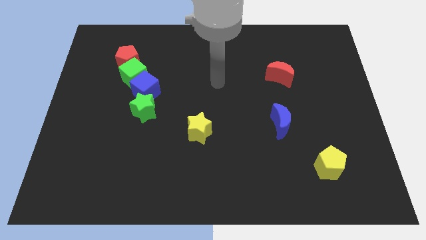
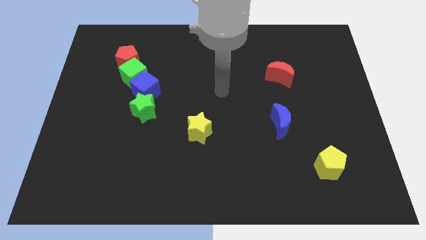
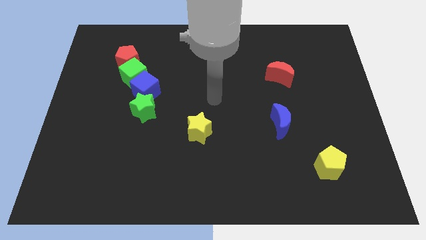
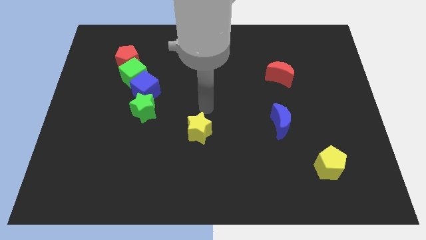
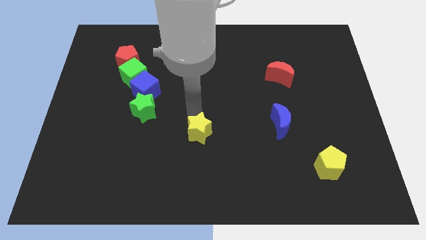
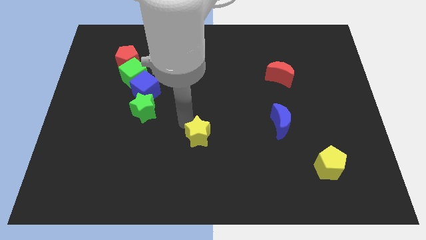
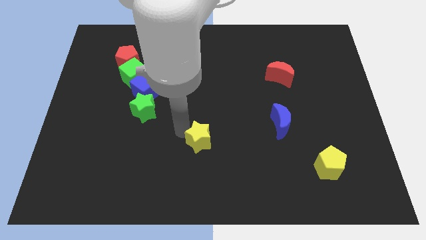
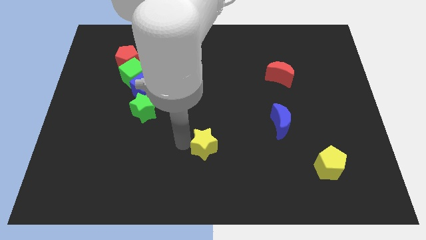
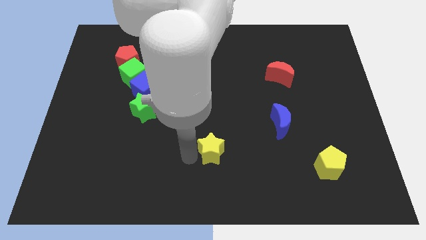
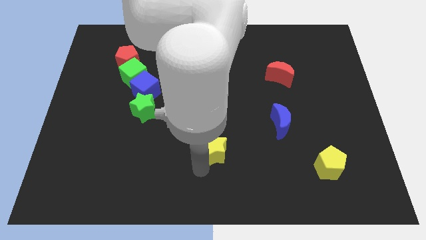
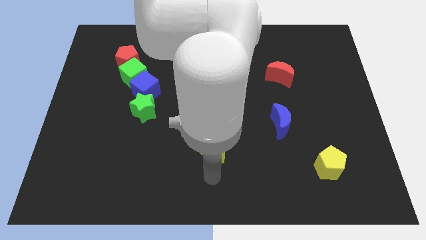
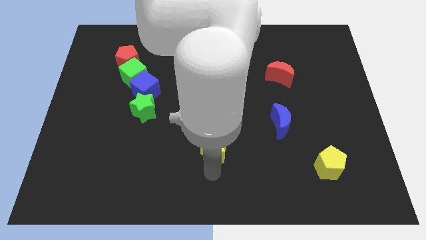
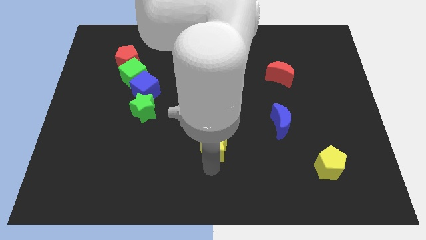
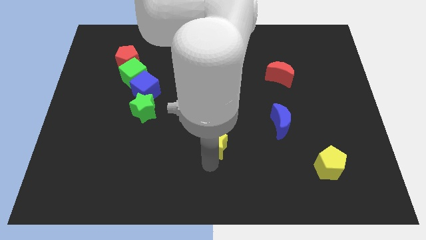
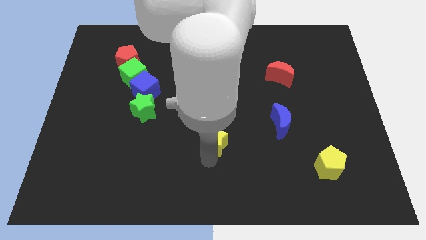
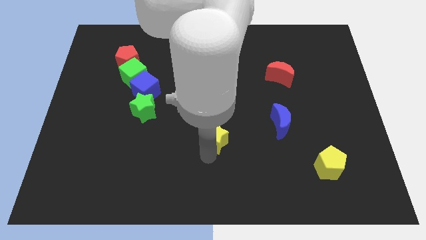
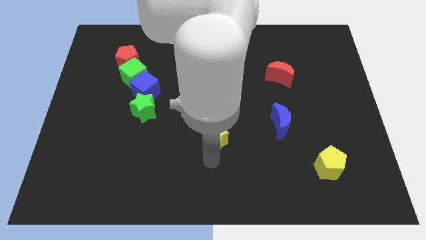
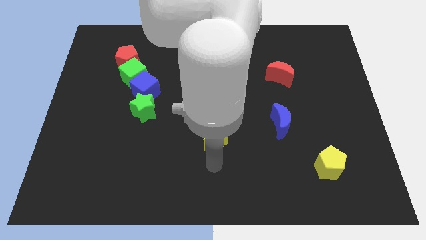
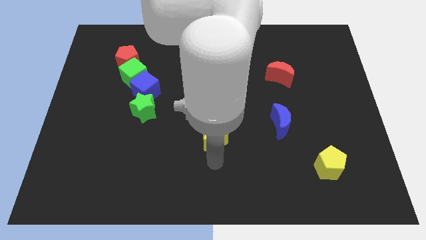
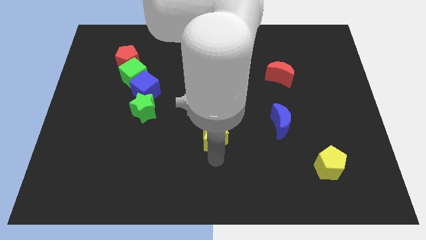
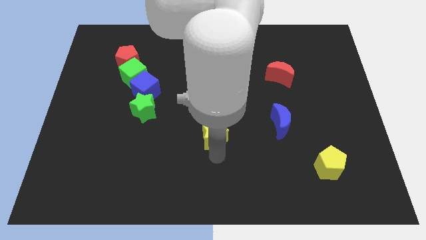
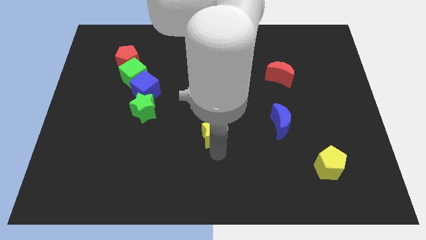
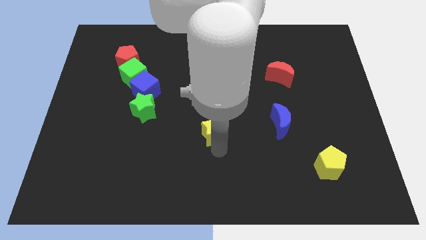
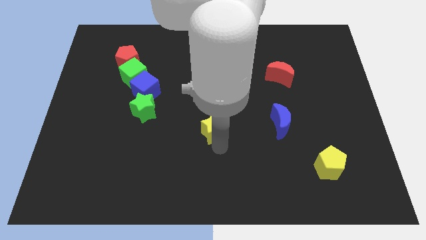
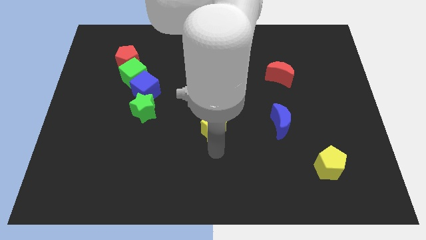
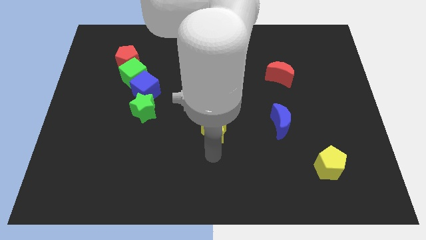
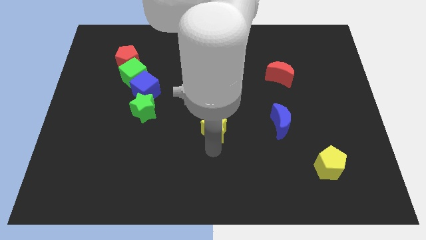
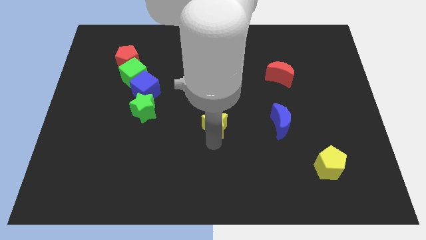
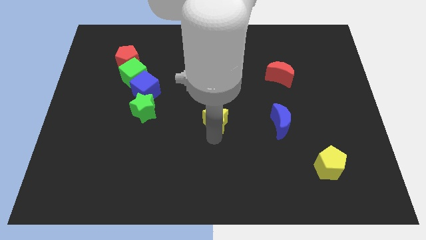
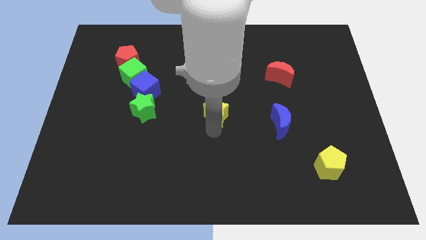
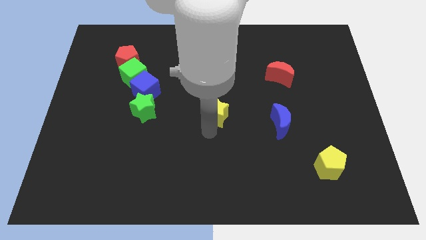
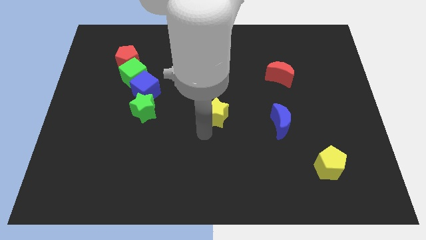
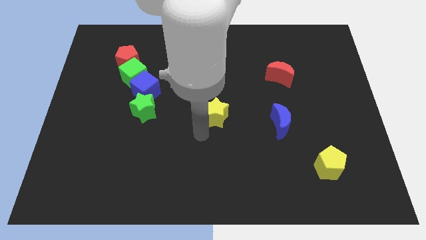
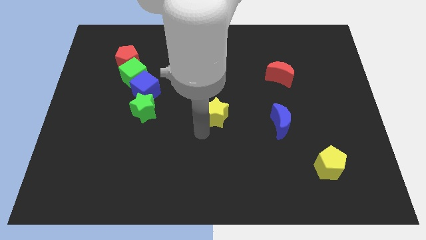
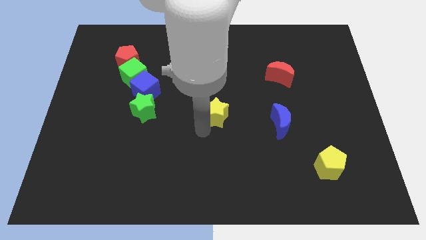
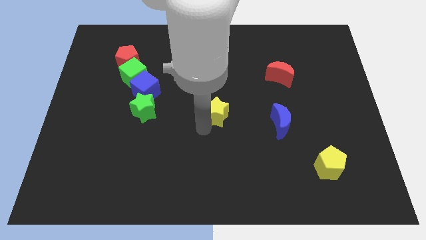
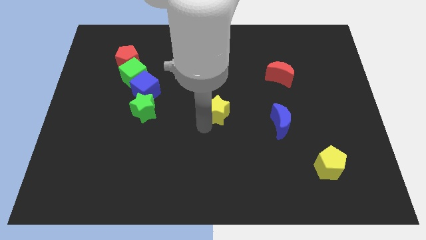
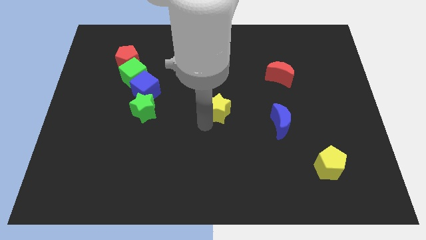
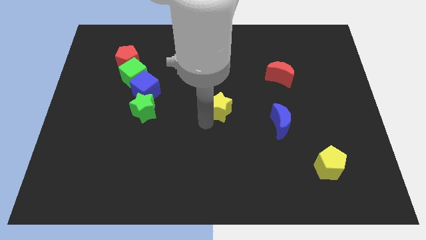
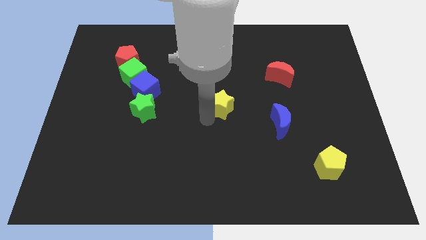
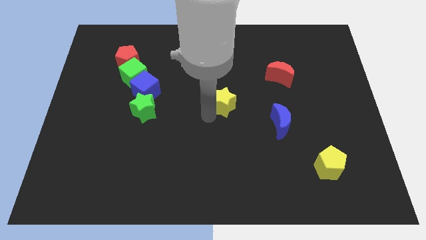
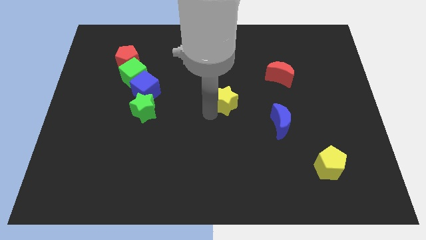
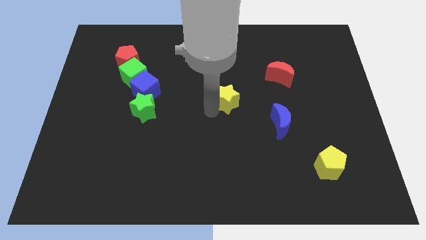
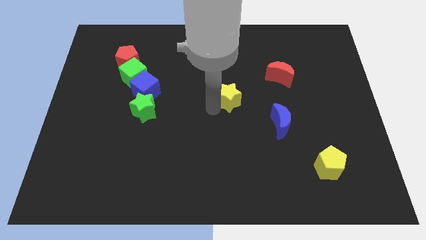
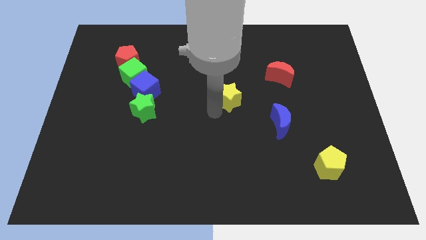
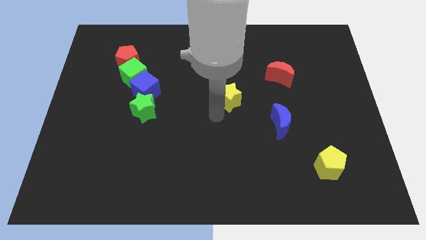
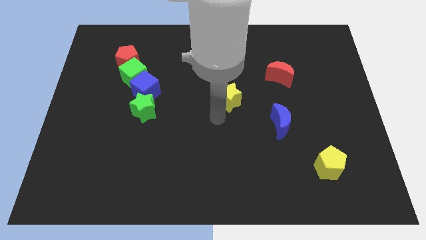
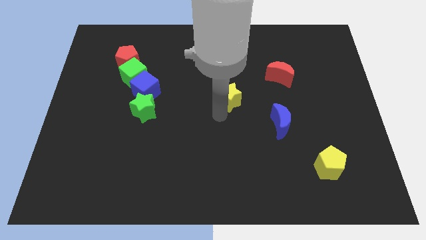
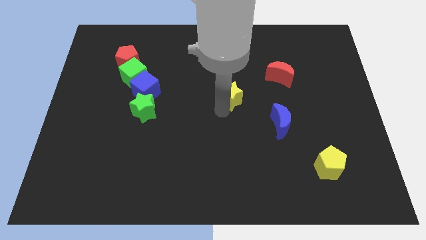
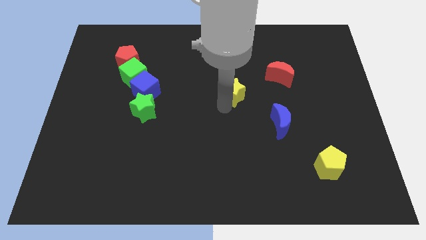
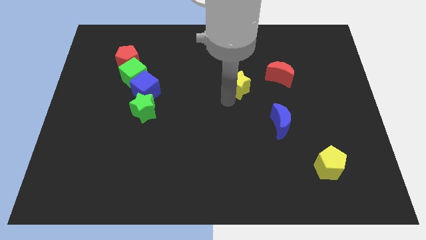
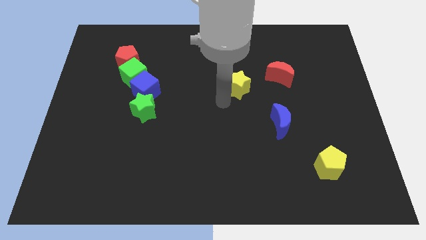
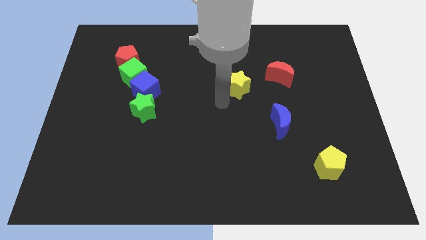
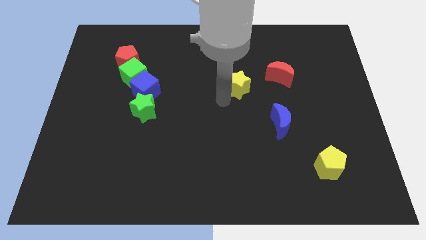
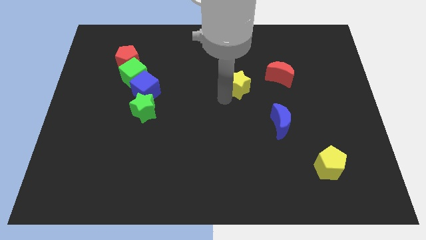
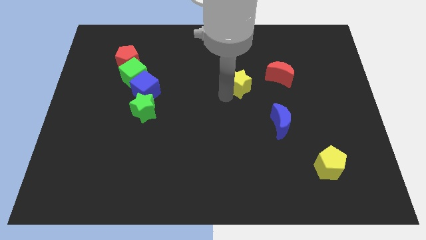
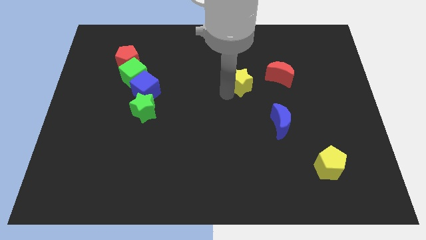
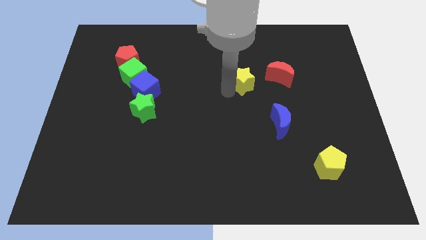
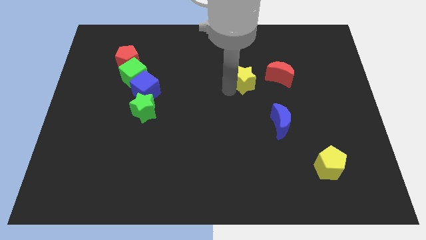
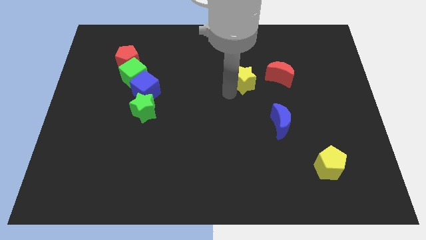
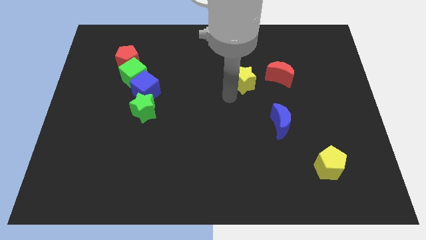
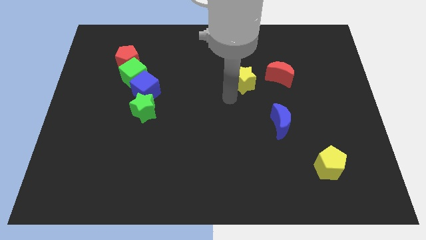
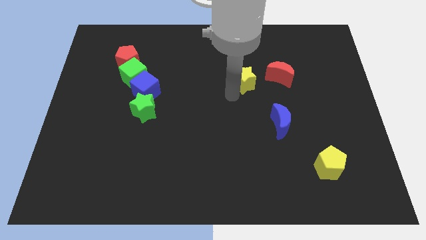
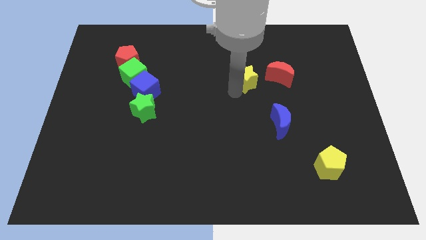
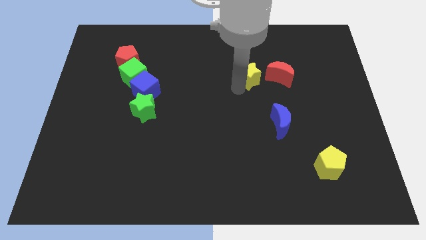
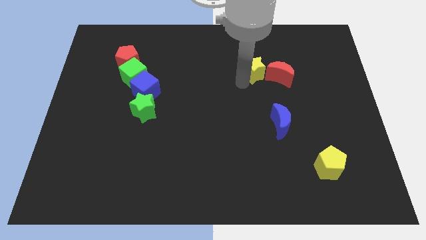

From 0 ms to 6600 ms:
push the yellow star upwards and right diagonally

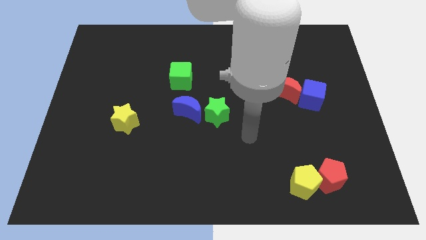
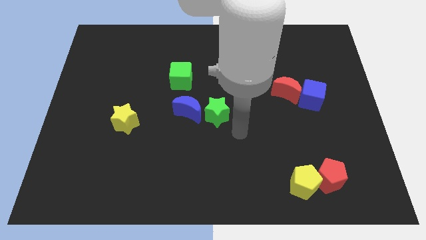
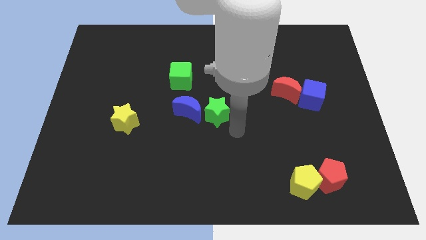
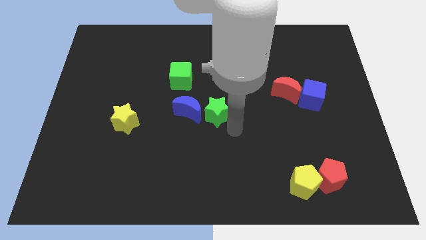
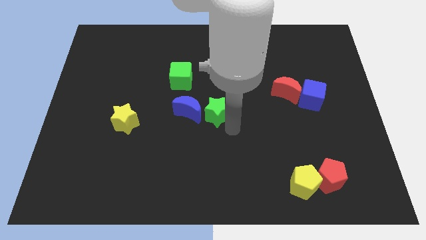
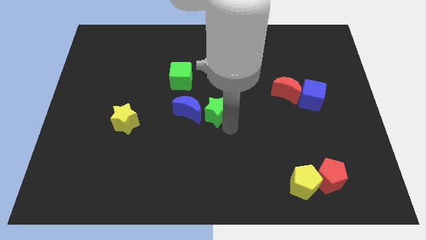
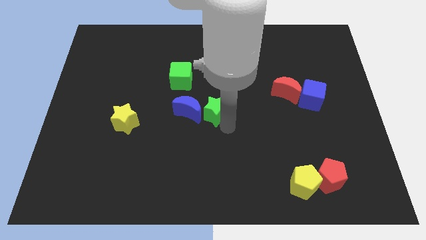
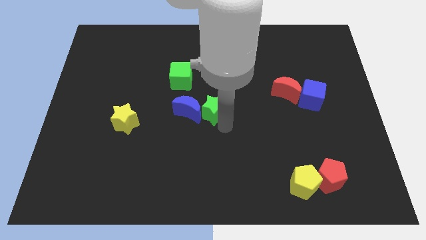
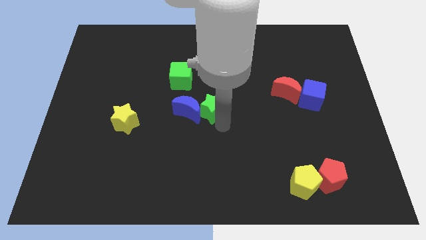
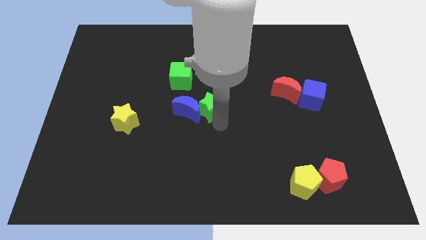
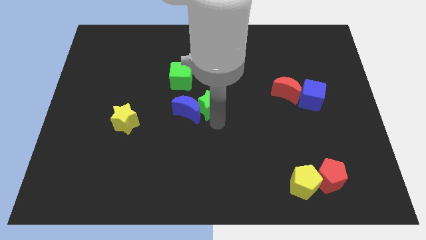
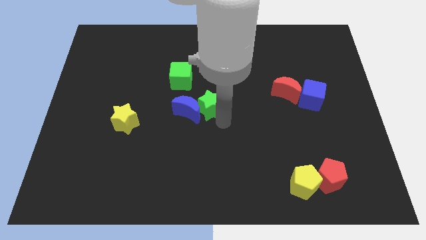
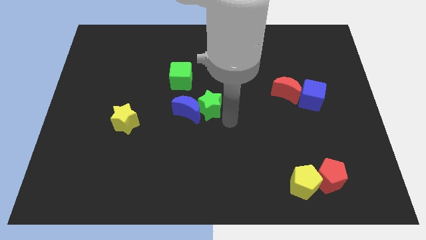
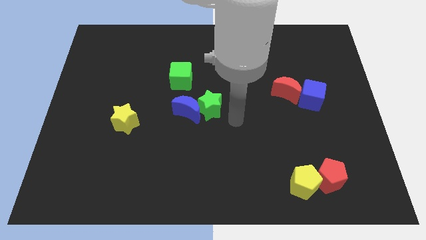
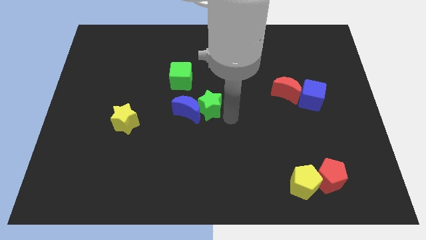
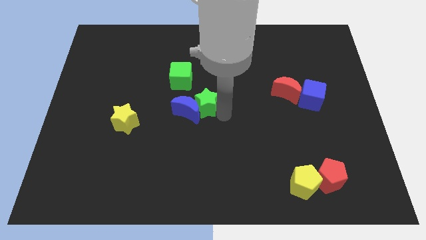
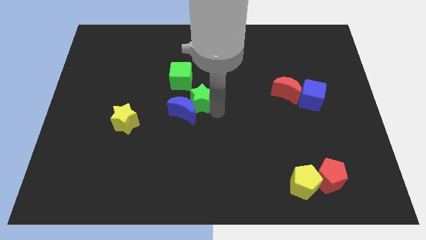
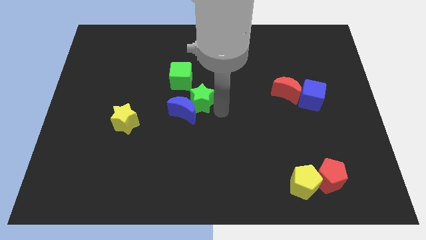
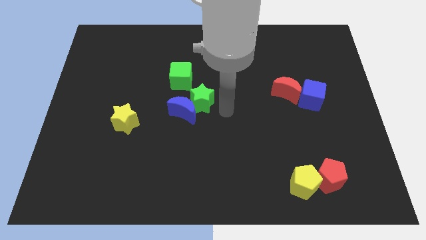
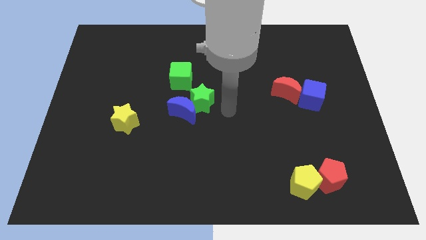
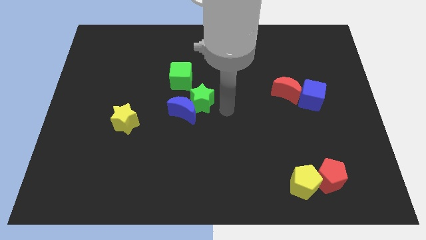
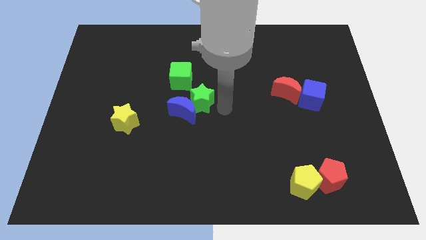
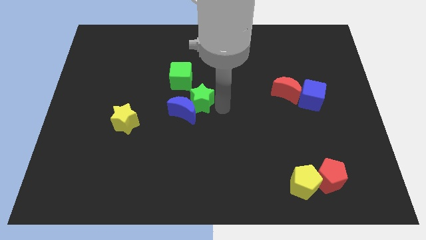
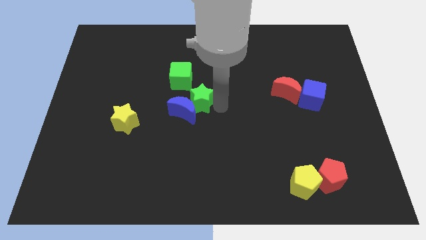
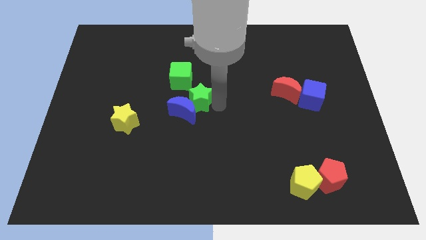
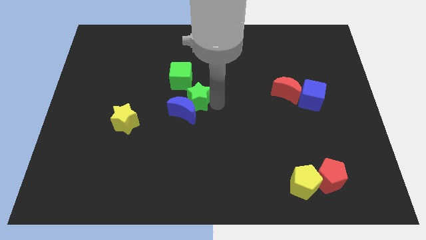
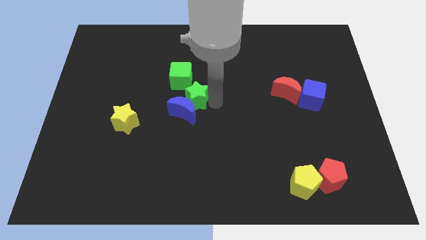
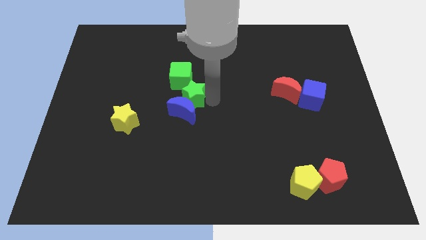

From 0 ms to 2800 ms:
push the green star diagonally upwards and left a bit
